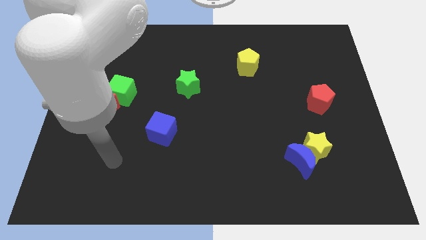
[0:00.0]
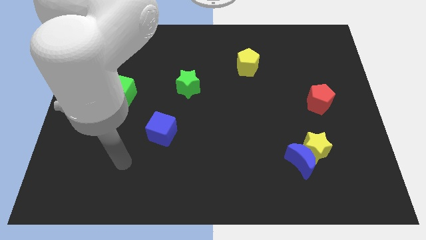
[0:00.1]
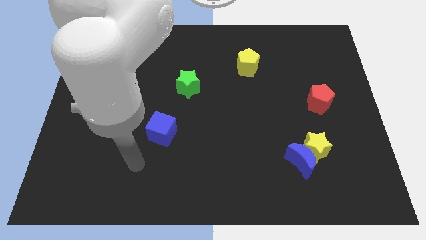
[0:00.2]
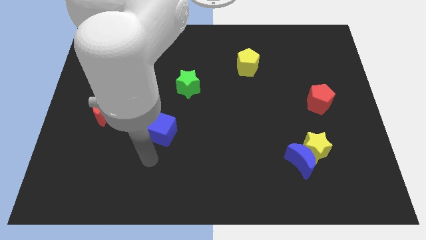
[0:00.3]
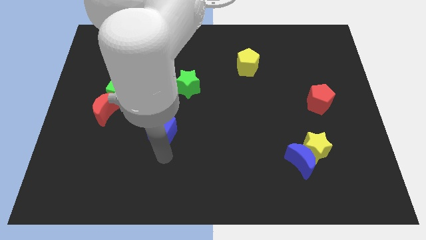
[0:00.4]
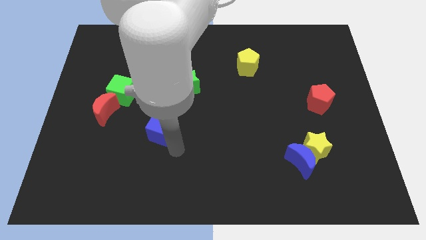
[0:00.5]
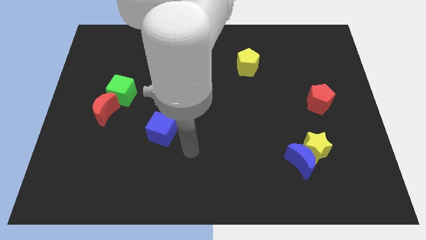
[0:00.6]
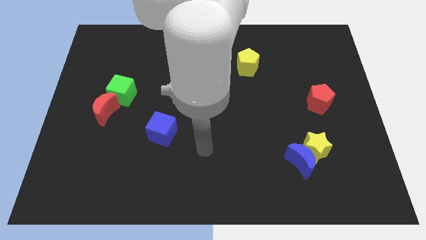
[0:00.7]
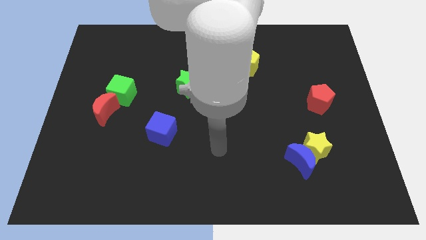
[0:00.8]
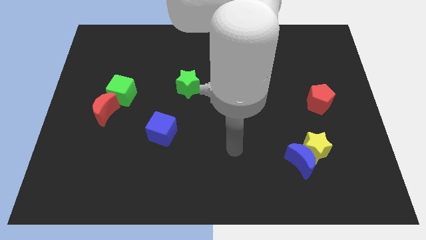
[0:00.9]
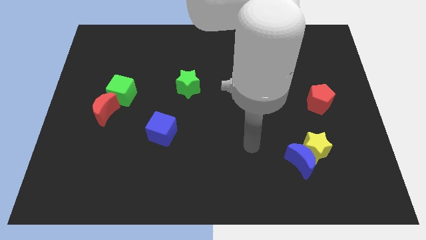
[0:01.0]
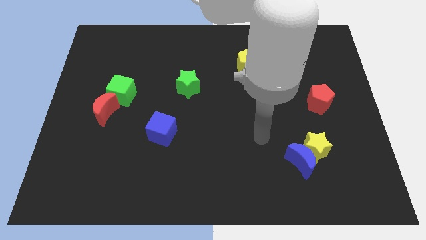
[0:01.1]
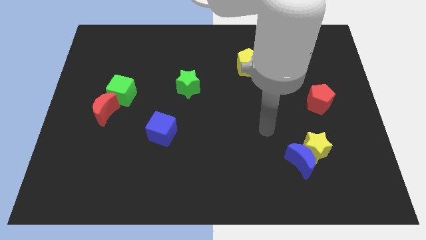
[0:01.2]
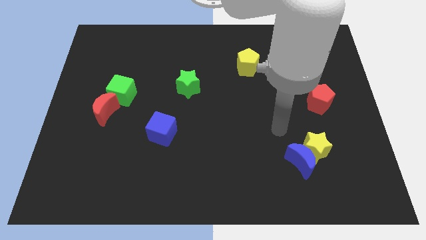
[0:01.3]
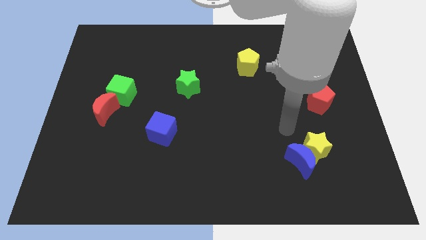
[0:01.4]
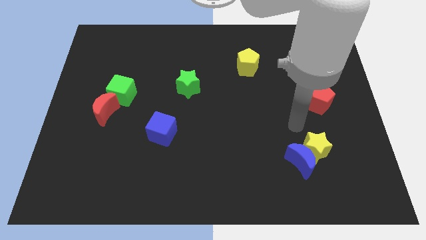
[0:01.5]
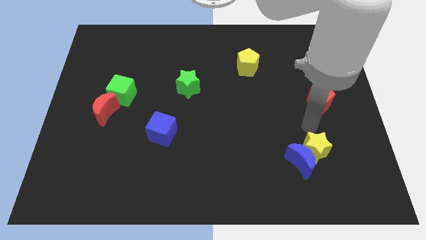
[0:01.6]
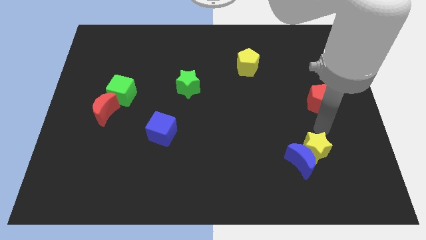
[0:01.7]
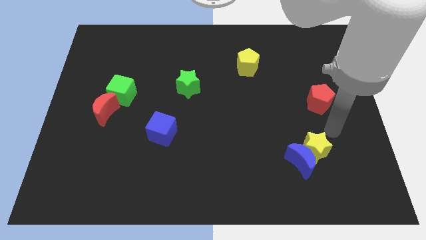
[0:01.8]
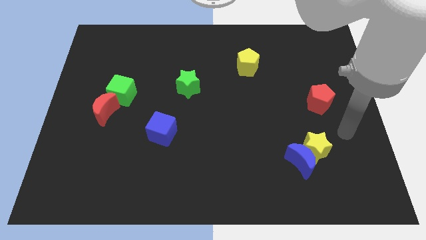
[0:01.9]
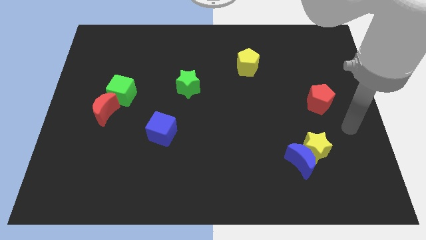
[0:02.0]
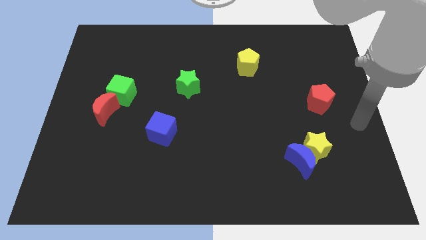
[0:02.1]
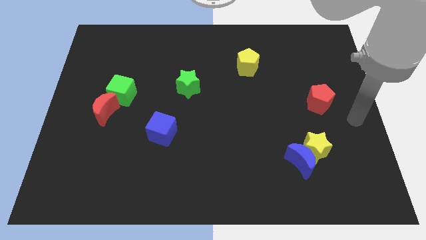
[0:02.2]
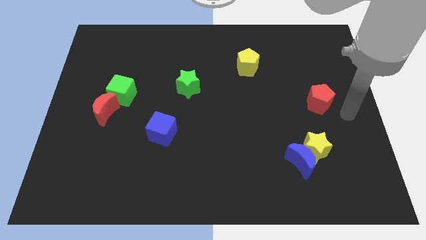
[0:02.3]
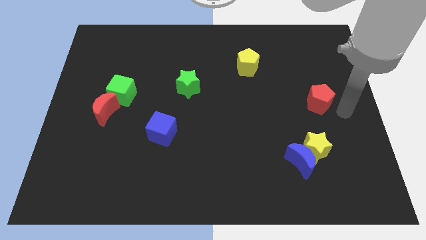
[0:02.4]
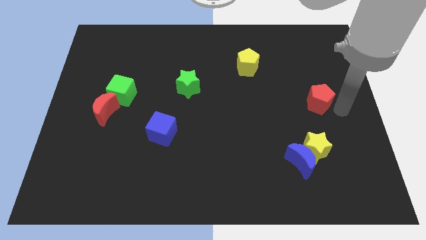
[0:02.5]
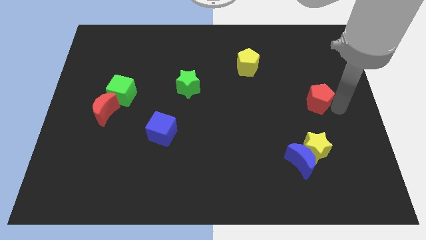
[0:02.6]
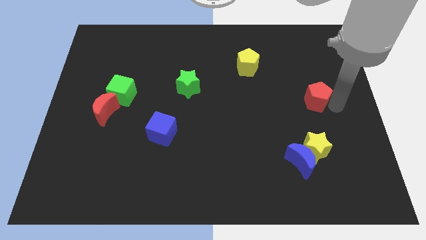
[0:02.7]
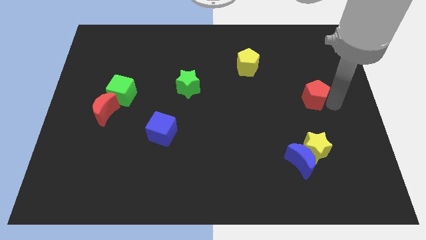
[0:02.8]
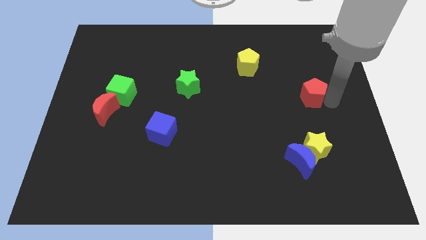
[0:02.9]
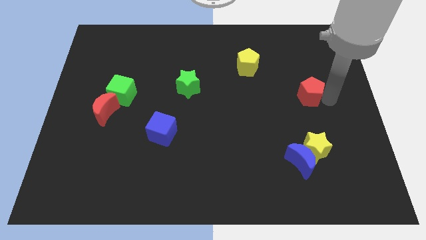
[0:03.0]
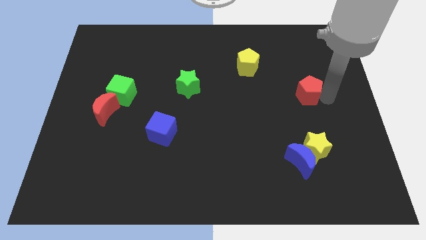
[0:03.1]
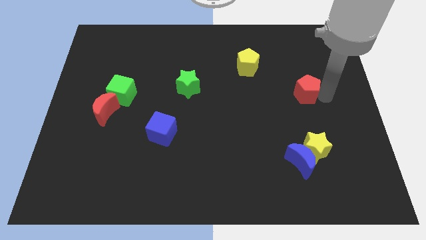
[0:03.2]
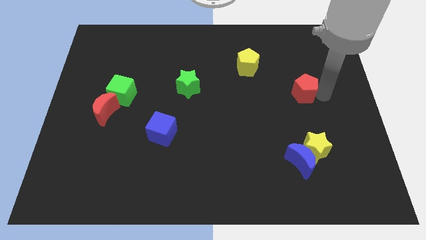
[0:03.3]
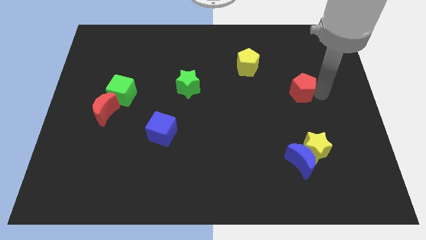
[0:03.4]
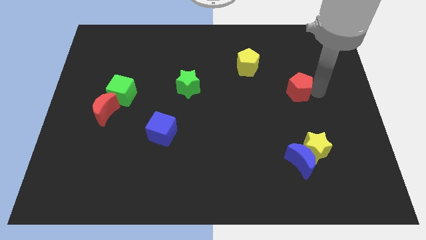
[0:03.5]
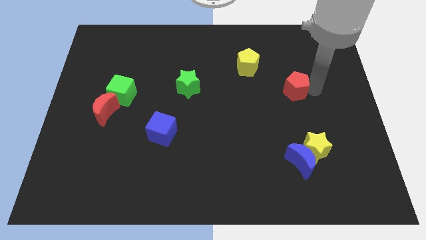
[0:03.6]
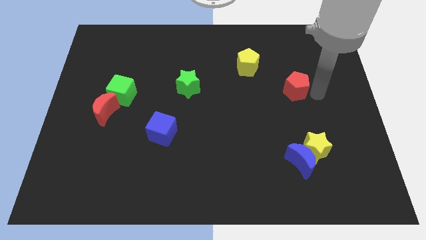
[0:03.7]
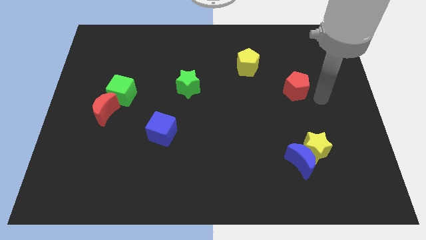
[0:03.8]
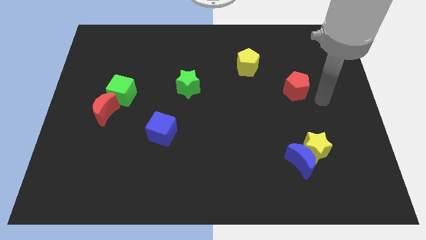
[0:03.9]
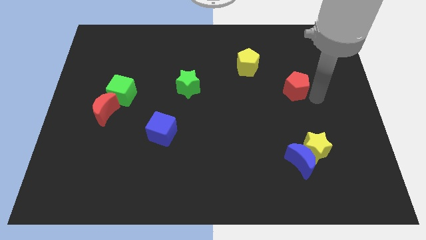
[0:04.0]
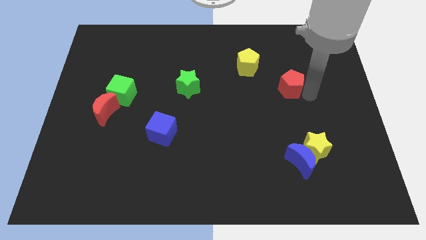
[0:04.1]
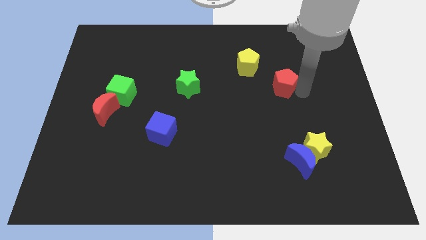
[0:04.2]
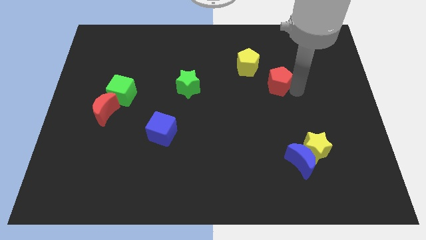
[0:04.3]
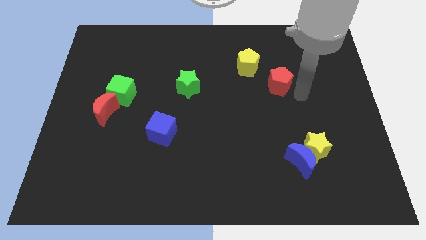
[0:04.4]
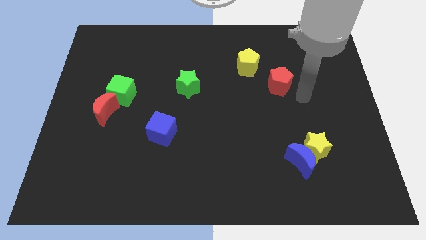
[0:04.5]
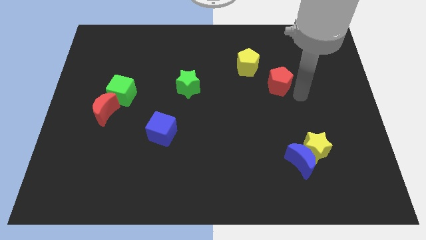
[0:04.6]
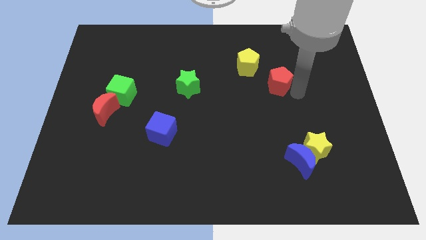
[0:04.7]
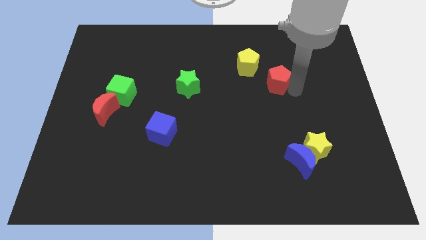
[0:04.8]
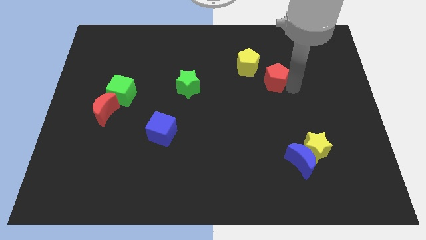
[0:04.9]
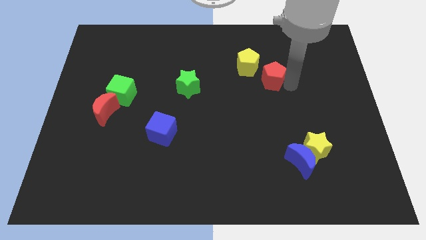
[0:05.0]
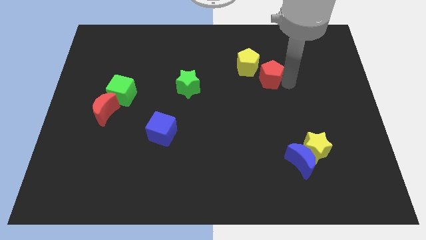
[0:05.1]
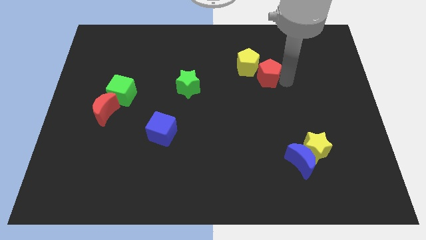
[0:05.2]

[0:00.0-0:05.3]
put the red pentagon close to the yellow pentagon

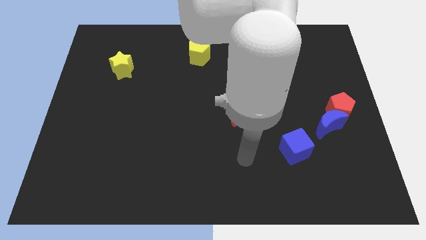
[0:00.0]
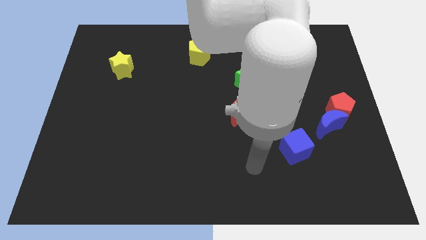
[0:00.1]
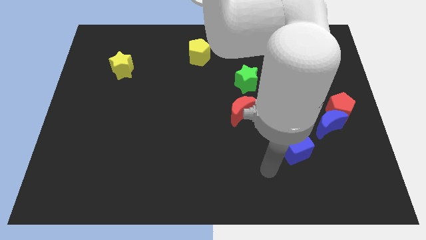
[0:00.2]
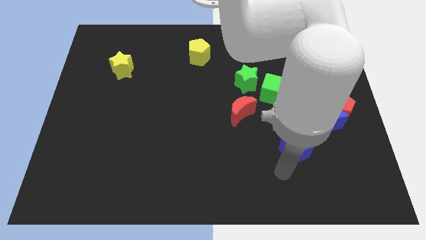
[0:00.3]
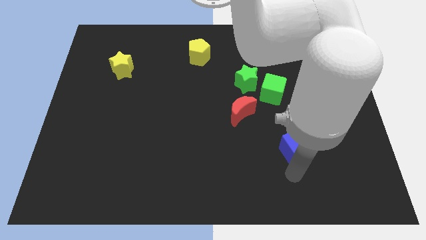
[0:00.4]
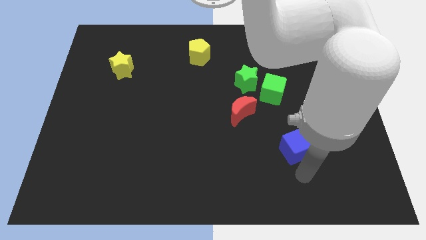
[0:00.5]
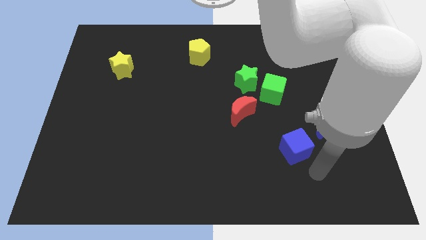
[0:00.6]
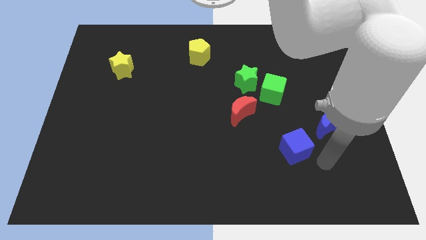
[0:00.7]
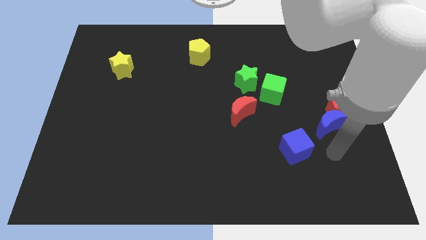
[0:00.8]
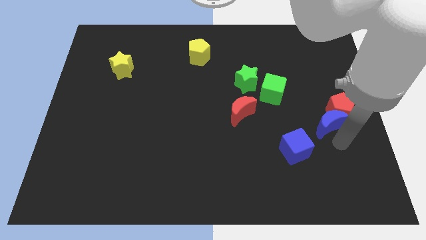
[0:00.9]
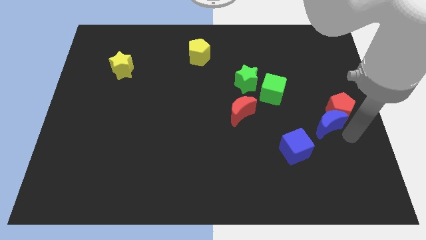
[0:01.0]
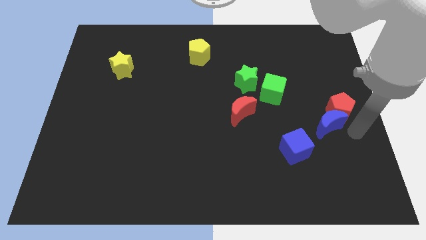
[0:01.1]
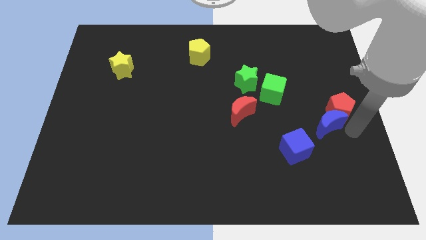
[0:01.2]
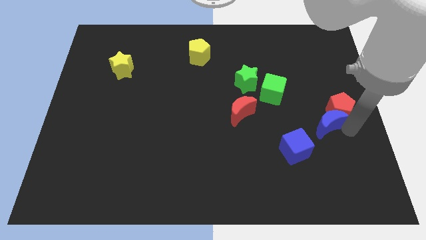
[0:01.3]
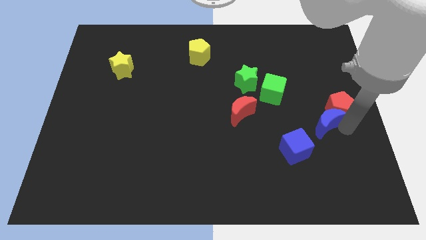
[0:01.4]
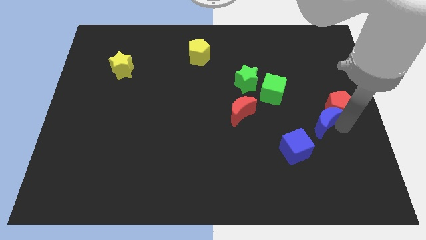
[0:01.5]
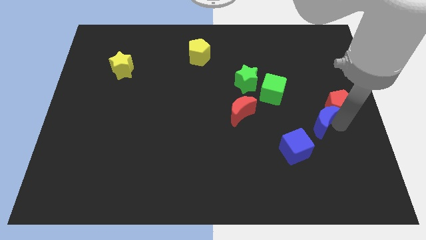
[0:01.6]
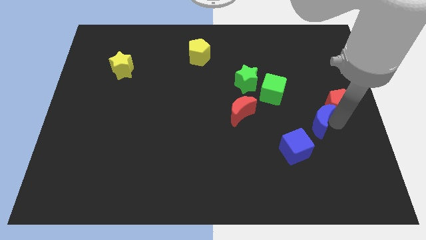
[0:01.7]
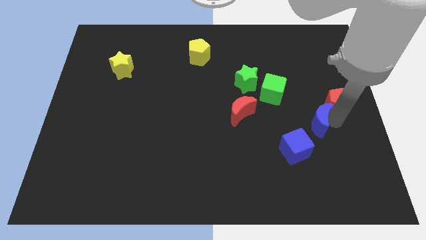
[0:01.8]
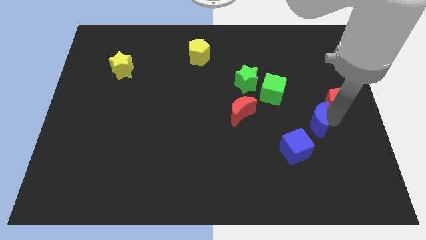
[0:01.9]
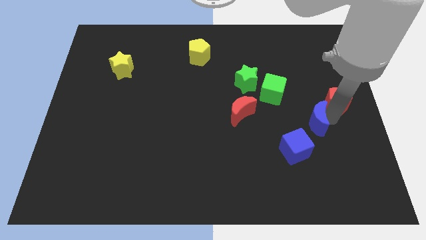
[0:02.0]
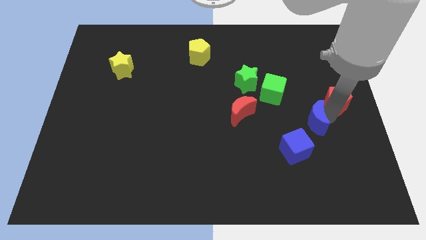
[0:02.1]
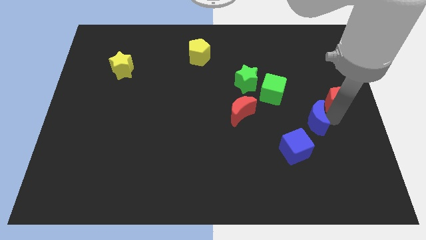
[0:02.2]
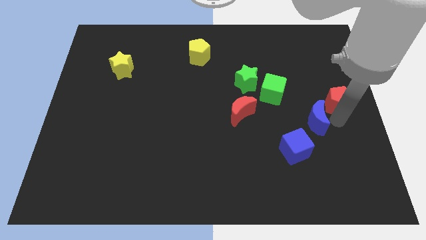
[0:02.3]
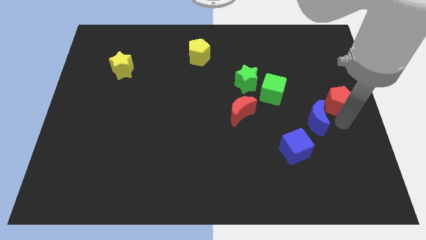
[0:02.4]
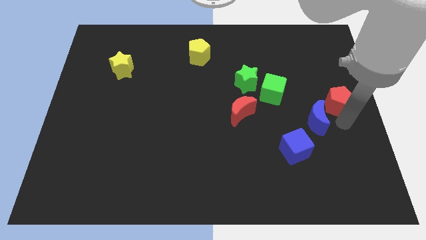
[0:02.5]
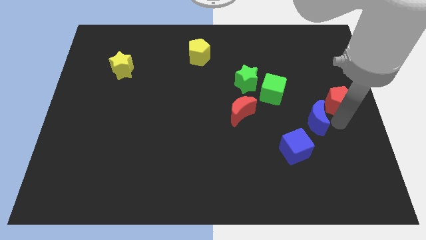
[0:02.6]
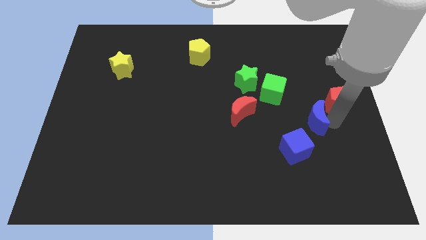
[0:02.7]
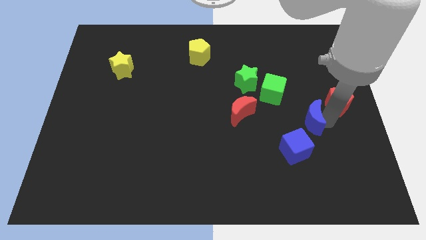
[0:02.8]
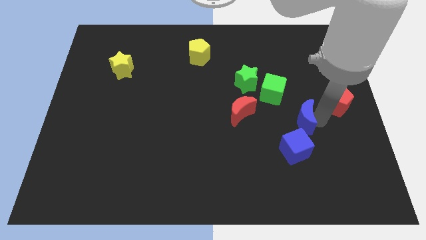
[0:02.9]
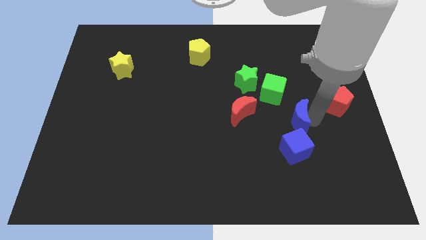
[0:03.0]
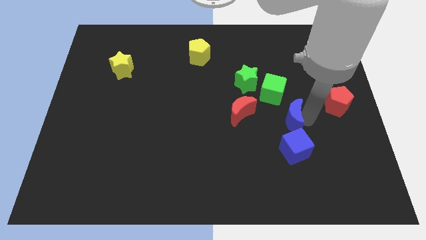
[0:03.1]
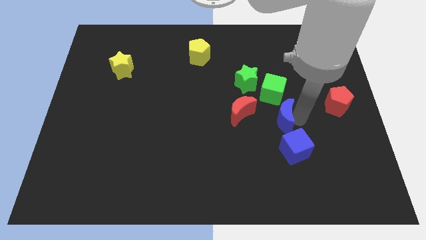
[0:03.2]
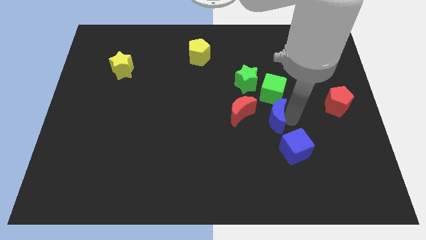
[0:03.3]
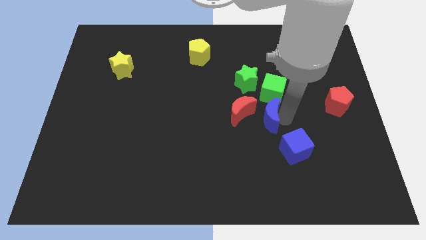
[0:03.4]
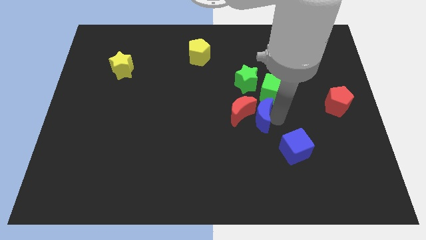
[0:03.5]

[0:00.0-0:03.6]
push the blue moon next to the red moon
